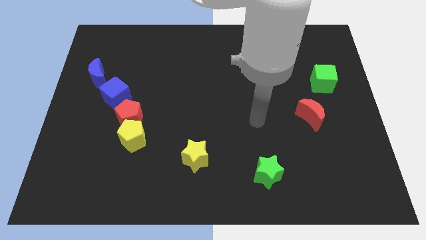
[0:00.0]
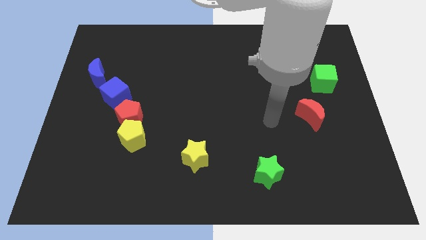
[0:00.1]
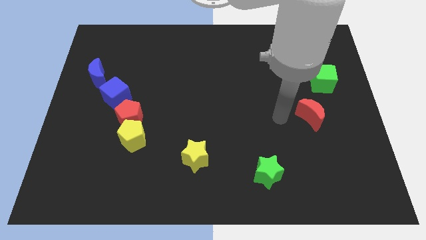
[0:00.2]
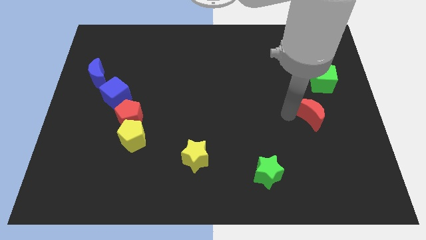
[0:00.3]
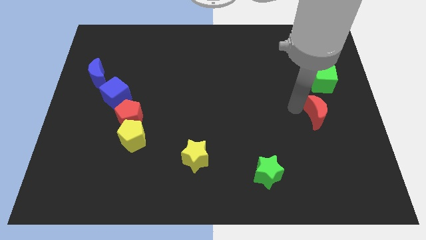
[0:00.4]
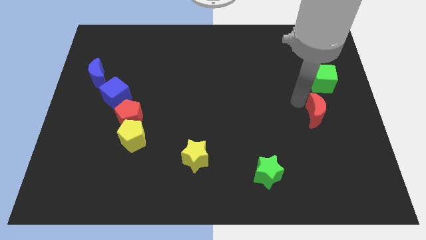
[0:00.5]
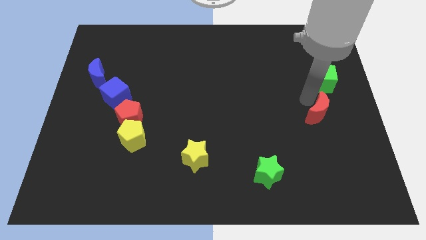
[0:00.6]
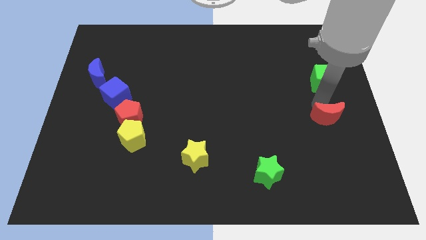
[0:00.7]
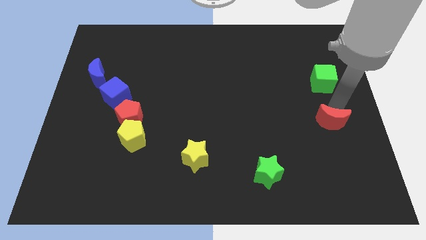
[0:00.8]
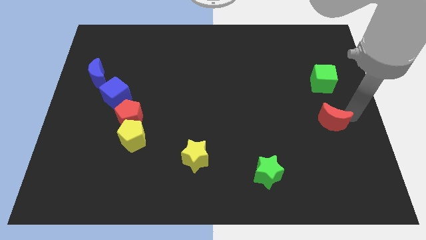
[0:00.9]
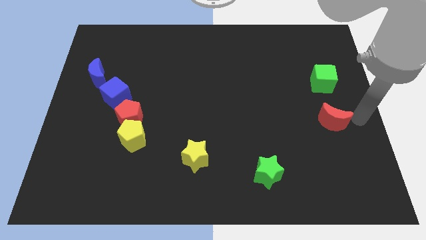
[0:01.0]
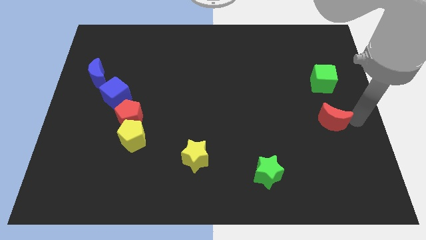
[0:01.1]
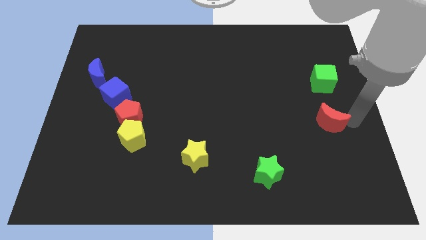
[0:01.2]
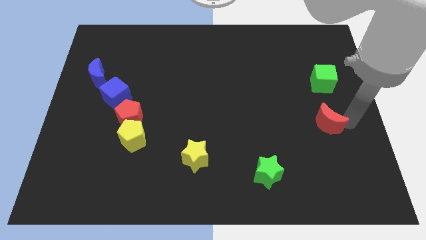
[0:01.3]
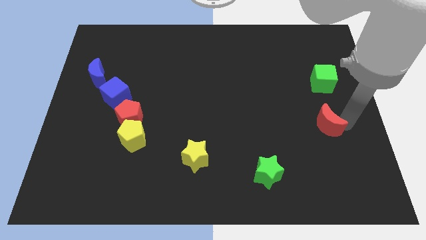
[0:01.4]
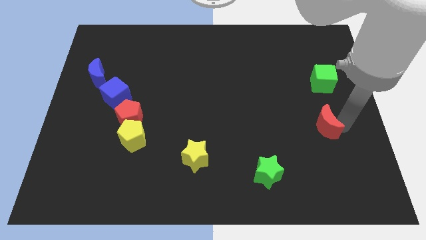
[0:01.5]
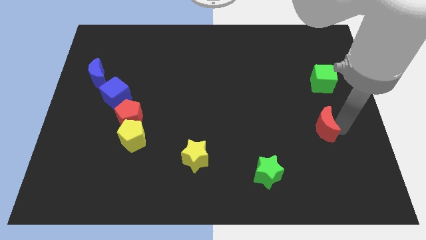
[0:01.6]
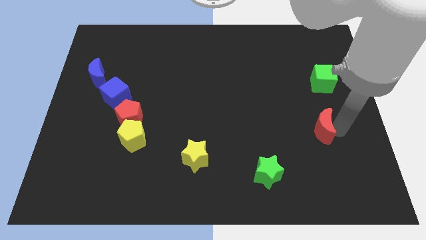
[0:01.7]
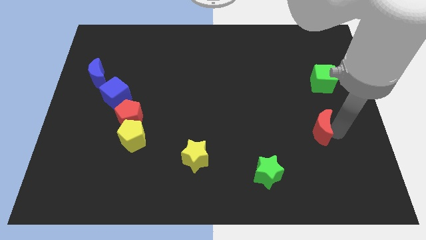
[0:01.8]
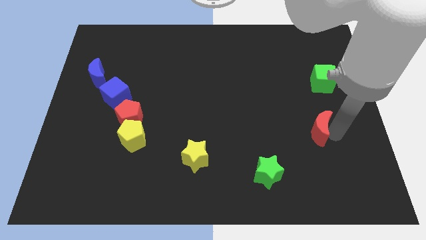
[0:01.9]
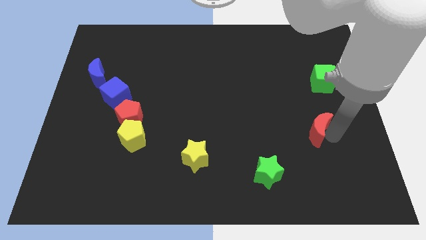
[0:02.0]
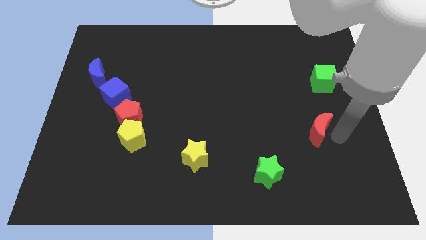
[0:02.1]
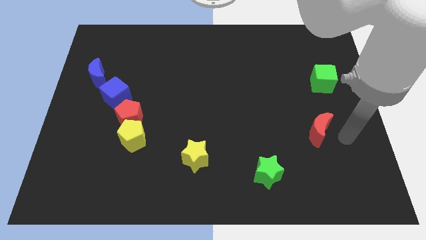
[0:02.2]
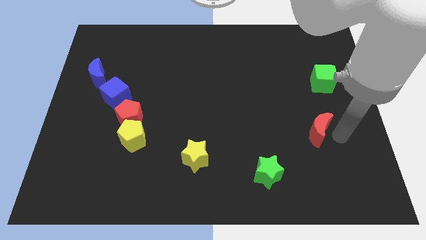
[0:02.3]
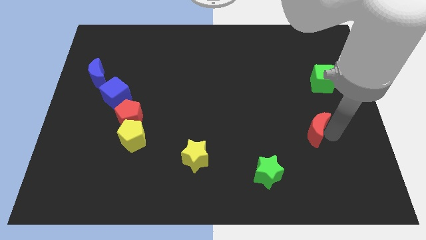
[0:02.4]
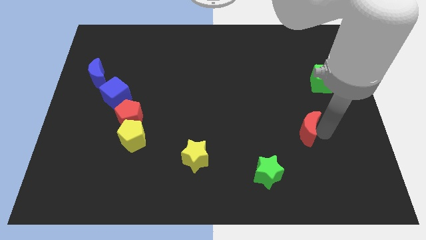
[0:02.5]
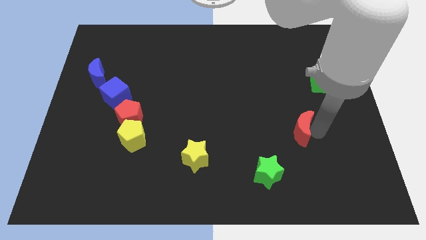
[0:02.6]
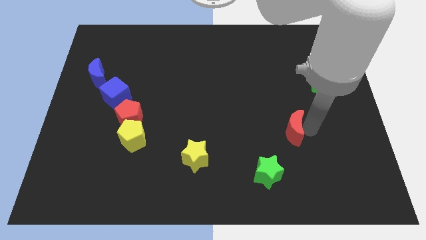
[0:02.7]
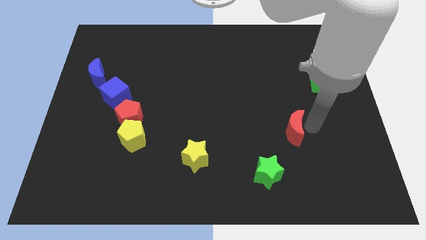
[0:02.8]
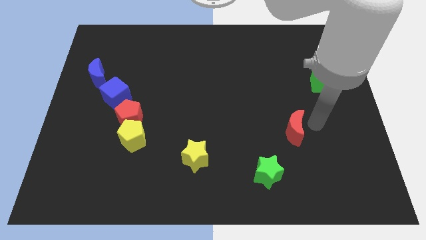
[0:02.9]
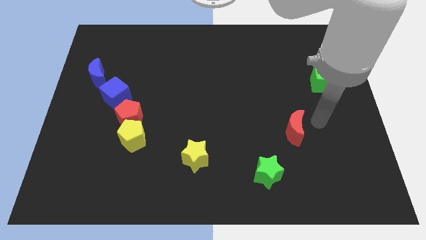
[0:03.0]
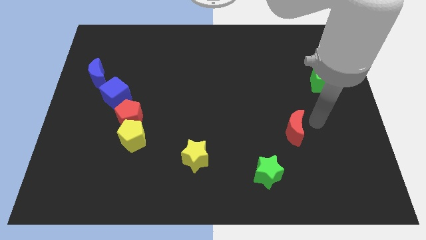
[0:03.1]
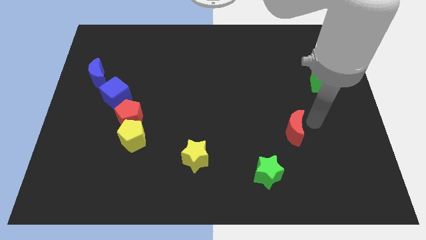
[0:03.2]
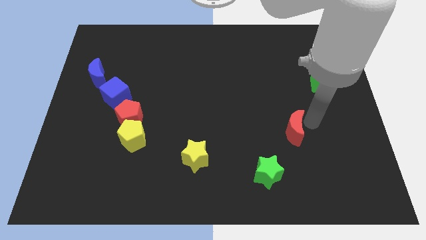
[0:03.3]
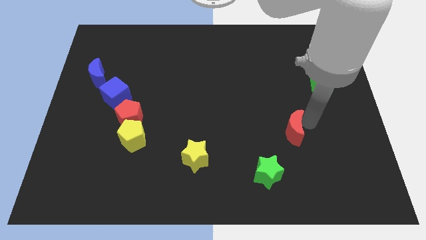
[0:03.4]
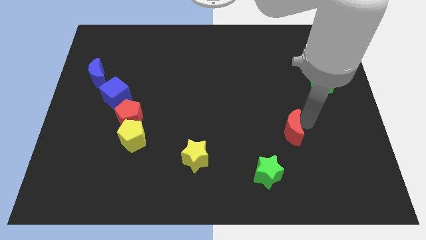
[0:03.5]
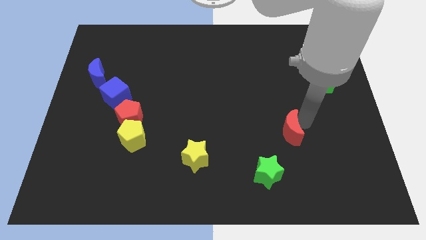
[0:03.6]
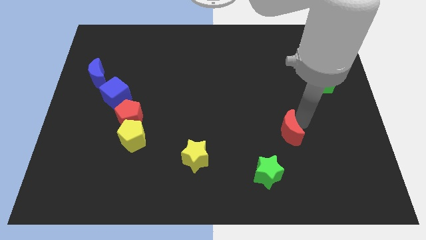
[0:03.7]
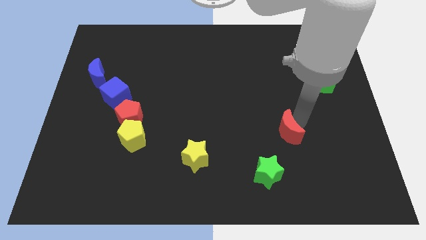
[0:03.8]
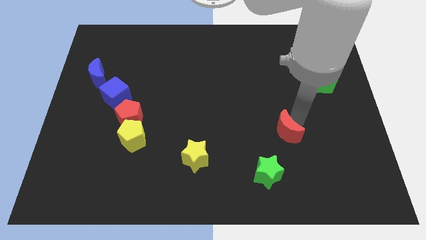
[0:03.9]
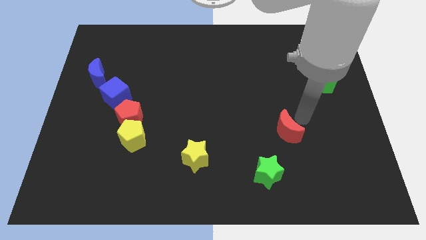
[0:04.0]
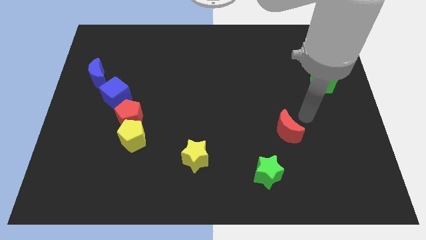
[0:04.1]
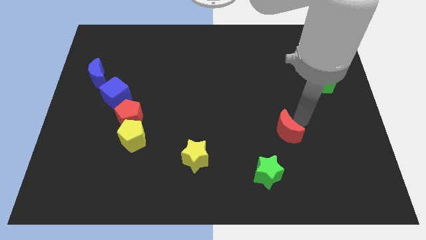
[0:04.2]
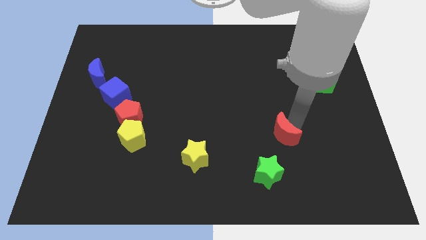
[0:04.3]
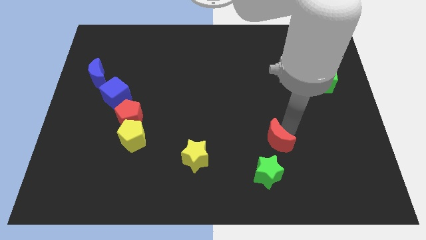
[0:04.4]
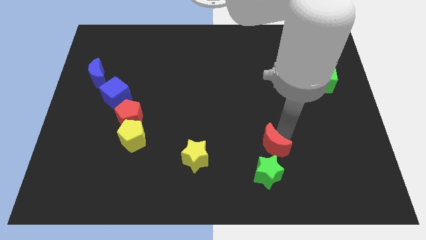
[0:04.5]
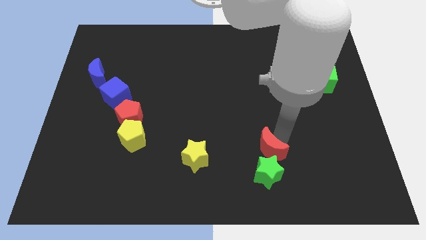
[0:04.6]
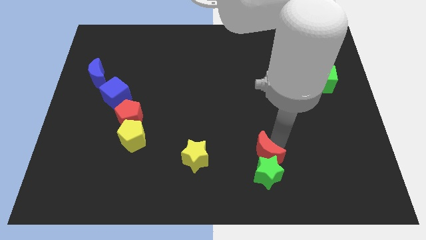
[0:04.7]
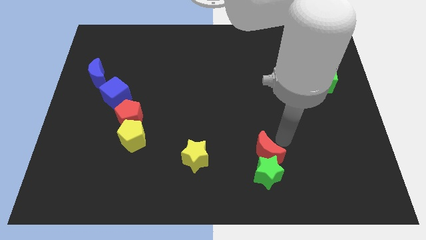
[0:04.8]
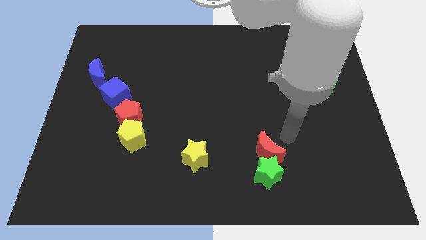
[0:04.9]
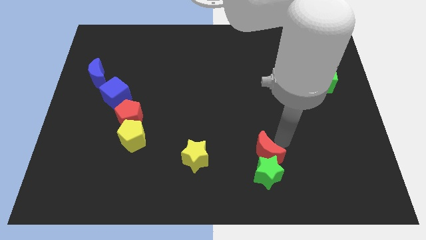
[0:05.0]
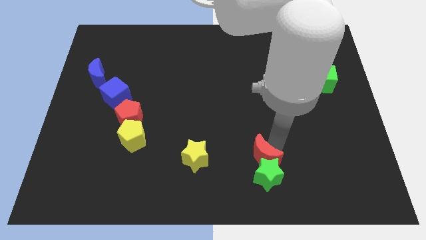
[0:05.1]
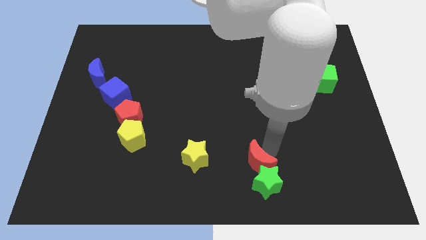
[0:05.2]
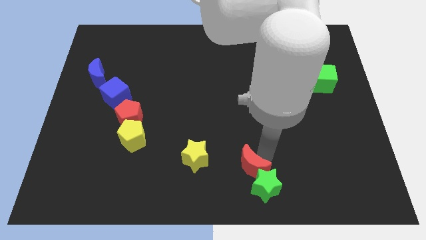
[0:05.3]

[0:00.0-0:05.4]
slide the red moon to the bottom

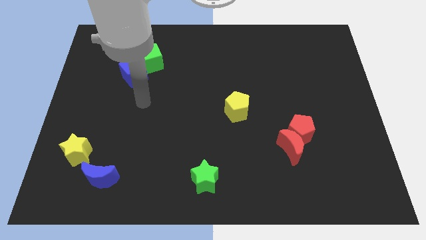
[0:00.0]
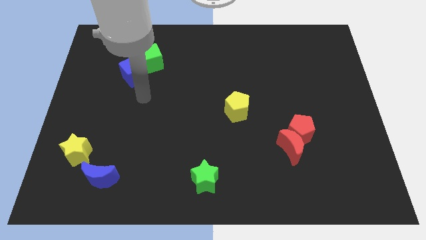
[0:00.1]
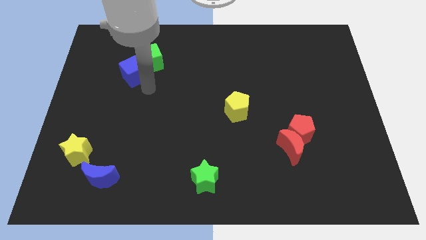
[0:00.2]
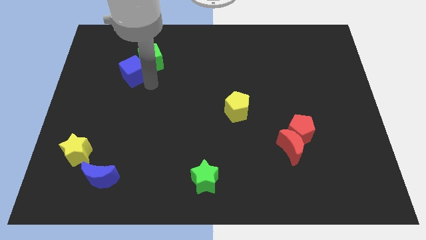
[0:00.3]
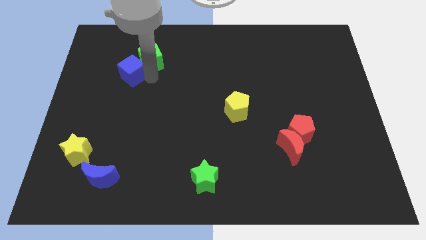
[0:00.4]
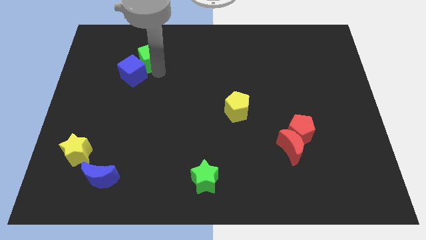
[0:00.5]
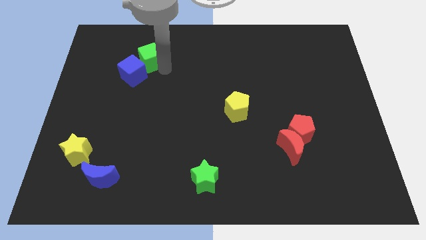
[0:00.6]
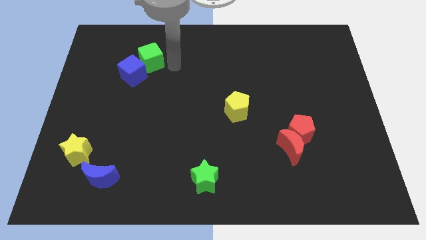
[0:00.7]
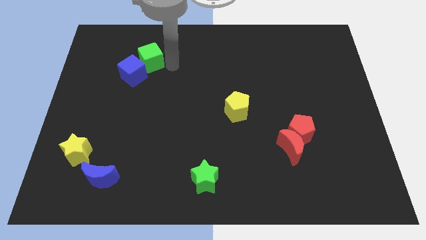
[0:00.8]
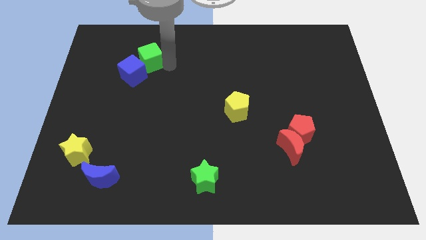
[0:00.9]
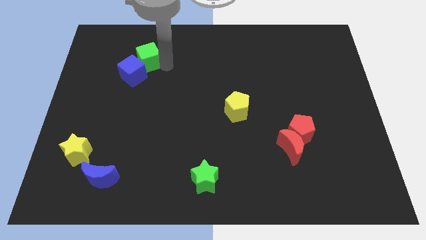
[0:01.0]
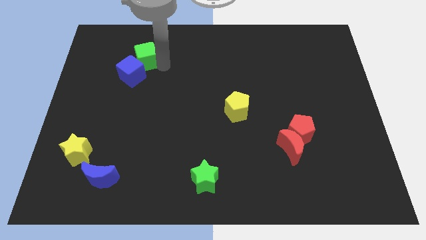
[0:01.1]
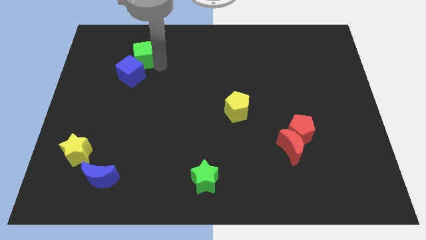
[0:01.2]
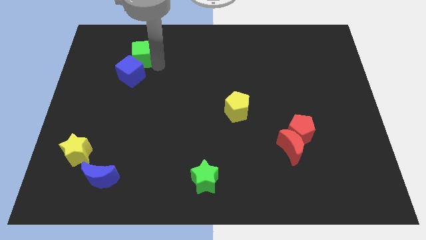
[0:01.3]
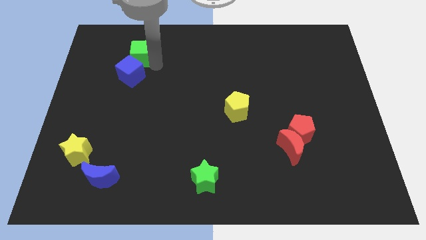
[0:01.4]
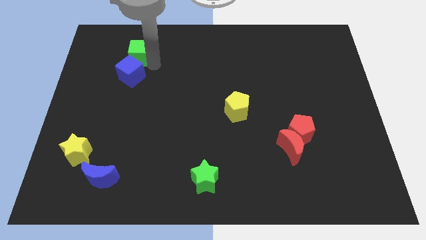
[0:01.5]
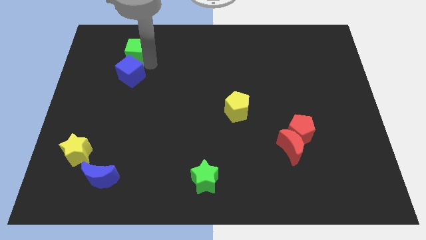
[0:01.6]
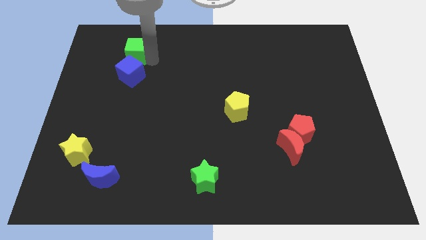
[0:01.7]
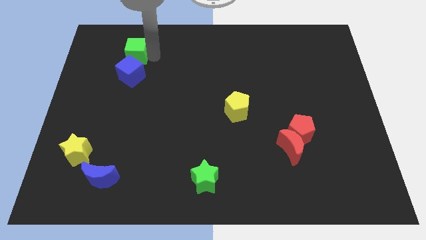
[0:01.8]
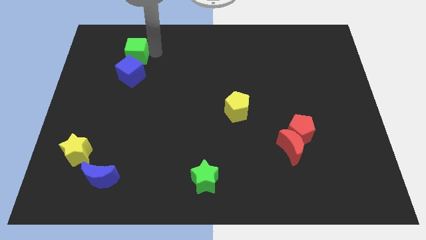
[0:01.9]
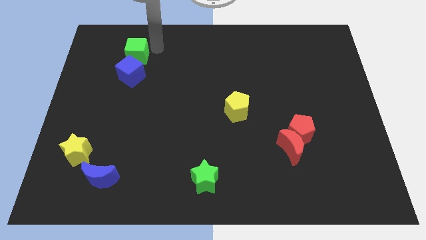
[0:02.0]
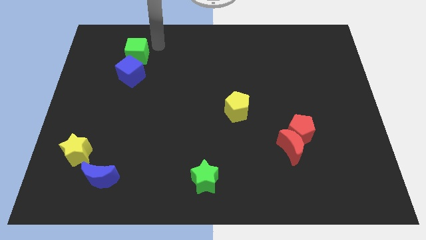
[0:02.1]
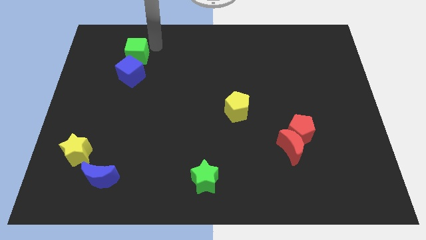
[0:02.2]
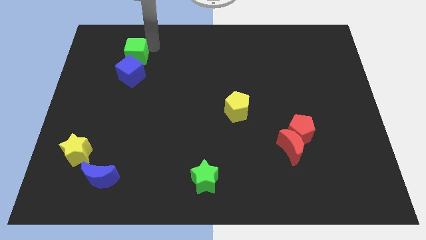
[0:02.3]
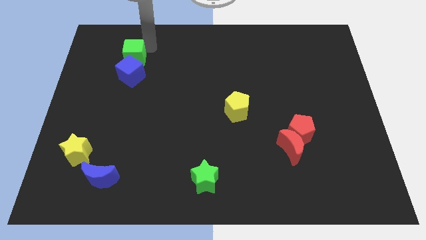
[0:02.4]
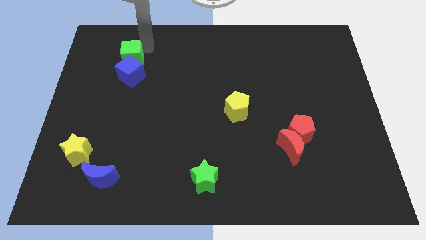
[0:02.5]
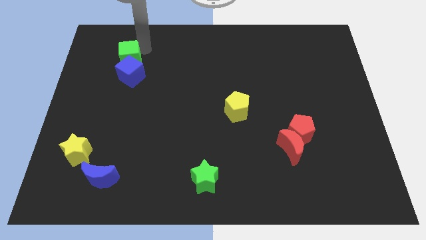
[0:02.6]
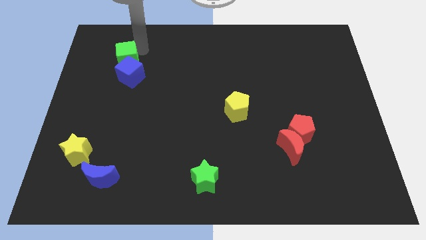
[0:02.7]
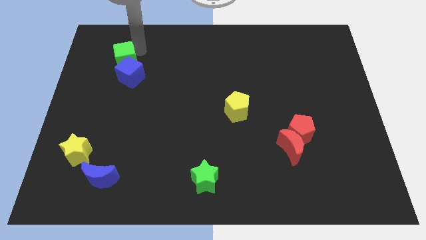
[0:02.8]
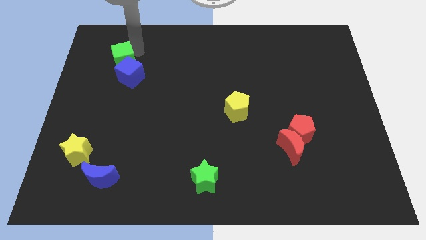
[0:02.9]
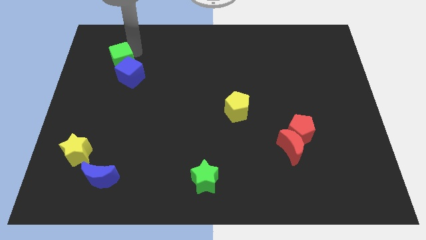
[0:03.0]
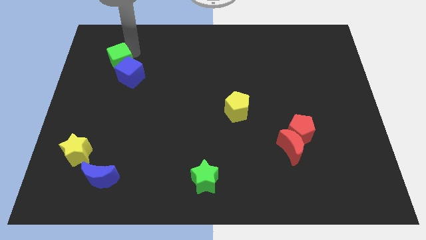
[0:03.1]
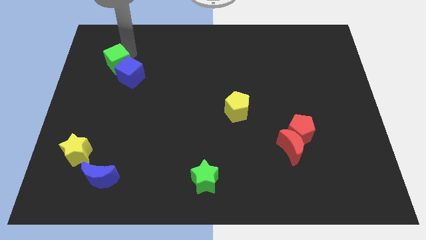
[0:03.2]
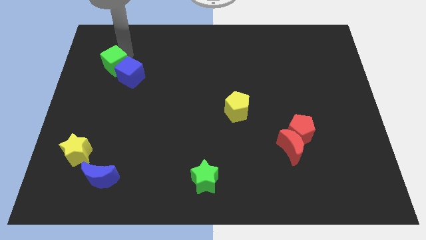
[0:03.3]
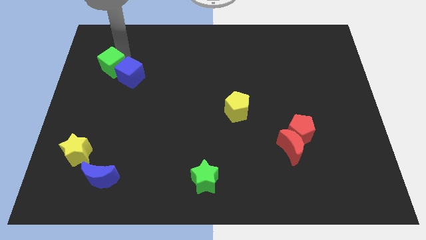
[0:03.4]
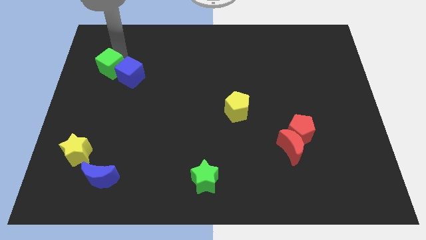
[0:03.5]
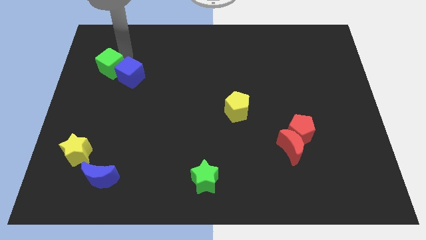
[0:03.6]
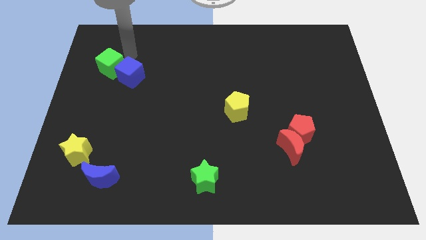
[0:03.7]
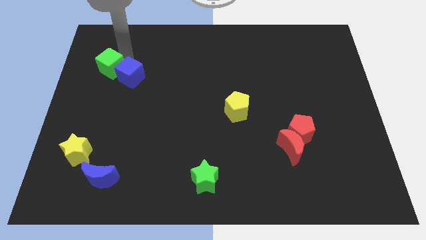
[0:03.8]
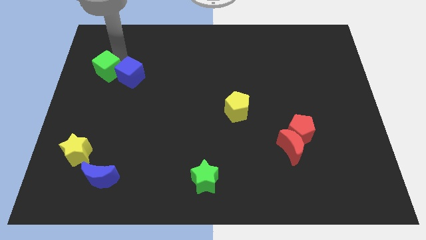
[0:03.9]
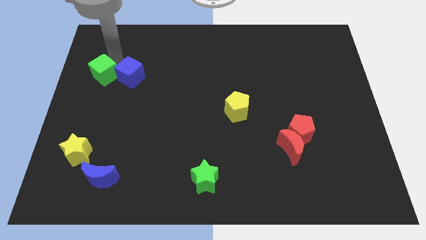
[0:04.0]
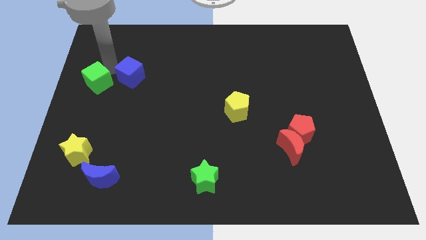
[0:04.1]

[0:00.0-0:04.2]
put the green cube to the left side of the board
